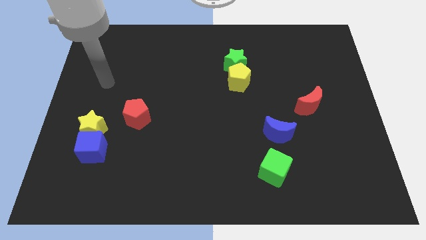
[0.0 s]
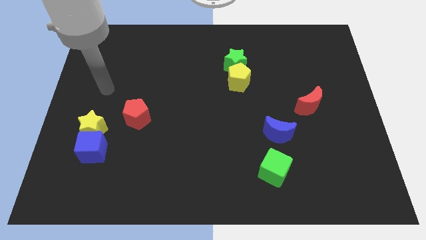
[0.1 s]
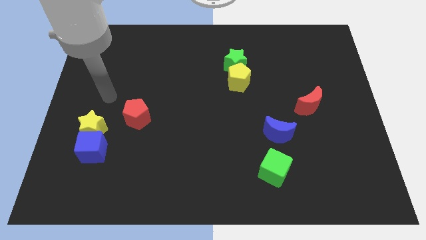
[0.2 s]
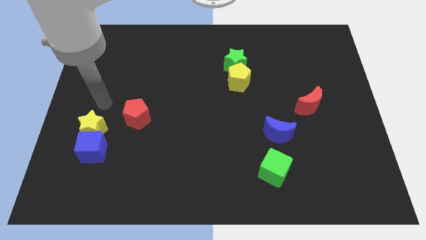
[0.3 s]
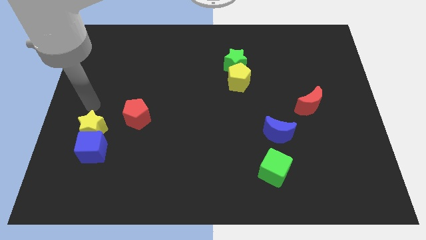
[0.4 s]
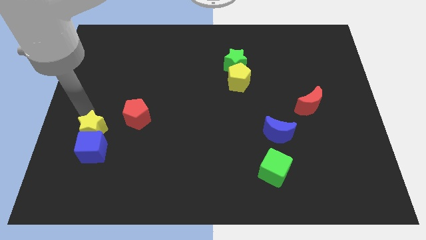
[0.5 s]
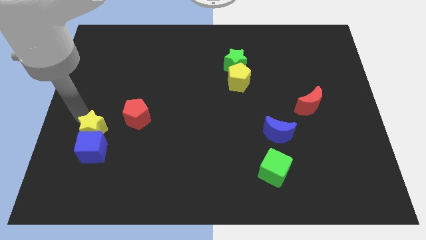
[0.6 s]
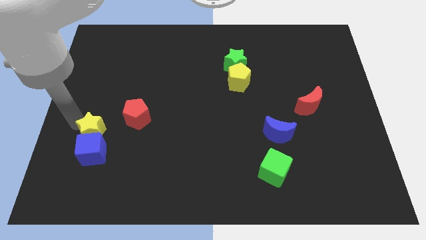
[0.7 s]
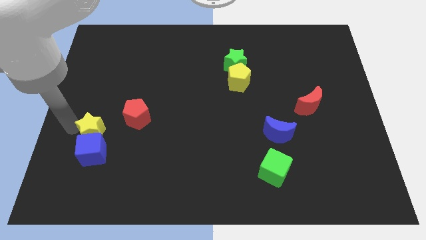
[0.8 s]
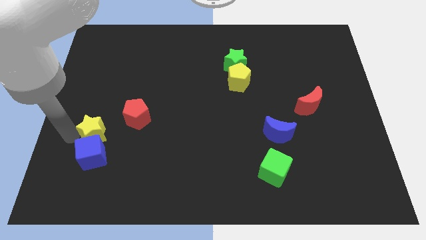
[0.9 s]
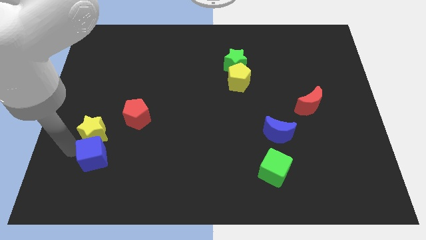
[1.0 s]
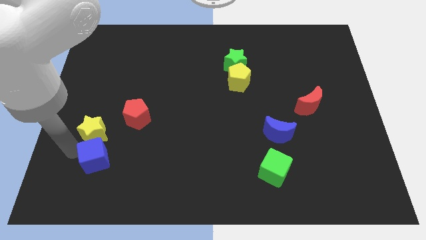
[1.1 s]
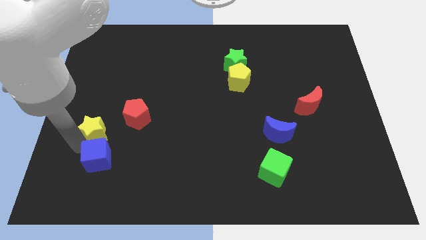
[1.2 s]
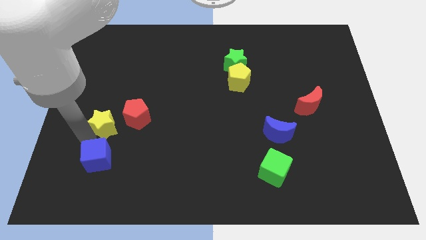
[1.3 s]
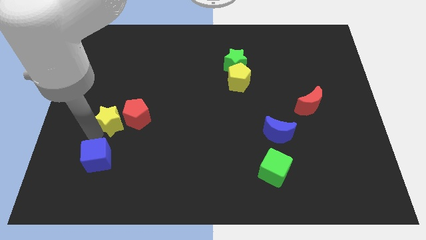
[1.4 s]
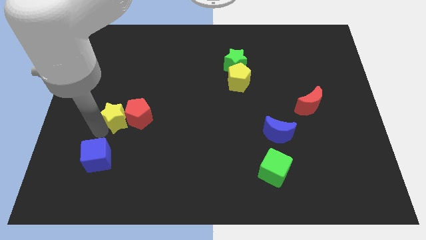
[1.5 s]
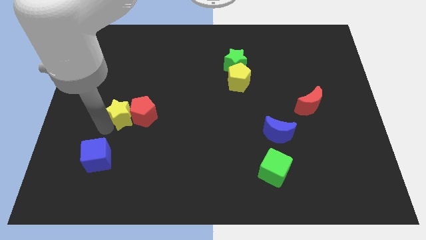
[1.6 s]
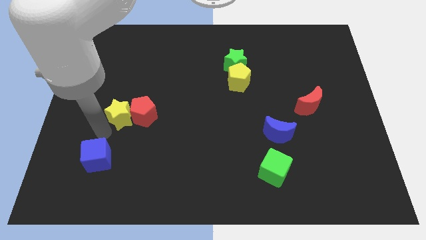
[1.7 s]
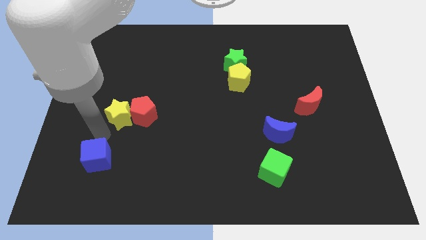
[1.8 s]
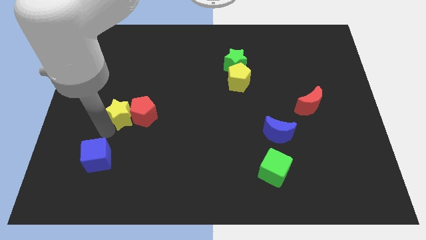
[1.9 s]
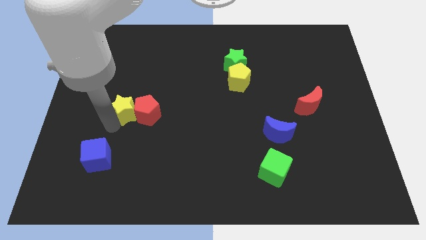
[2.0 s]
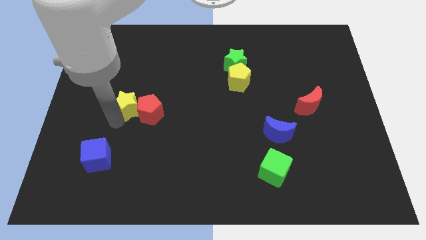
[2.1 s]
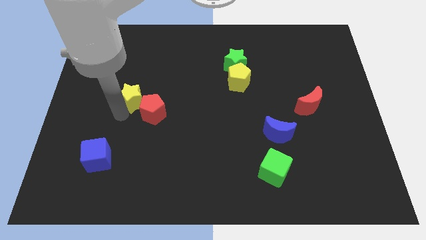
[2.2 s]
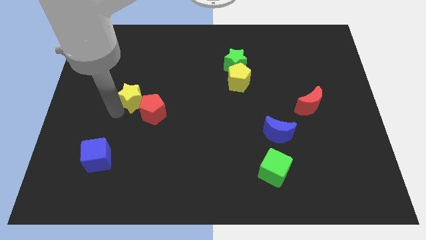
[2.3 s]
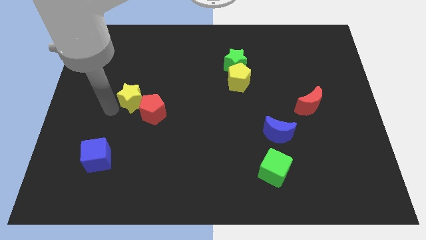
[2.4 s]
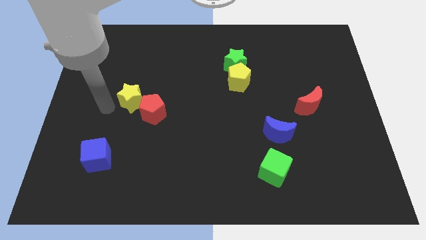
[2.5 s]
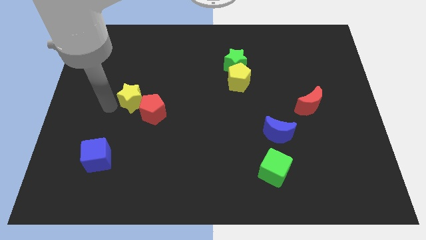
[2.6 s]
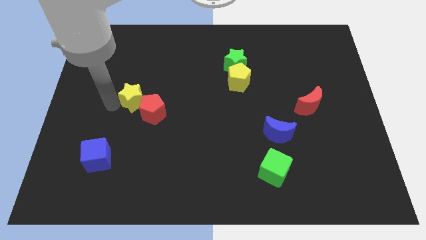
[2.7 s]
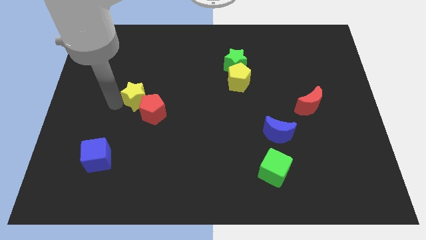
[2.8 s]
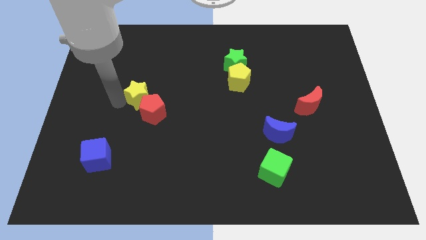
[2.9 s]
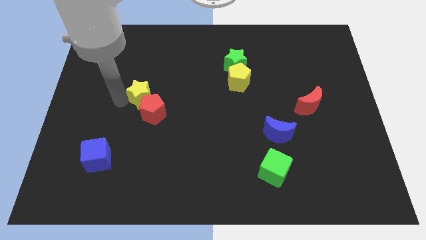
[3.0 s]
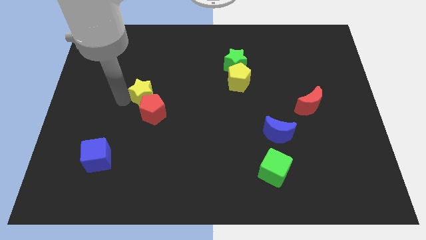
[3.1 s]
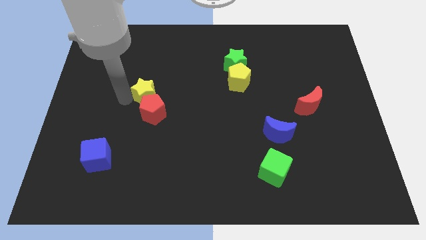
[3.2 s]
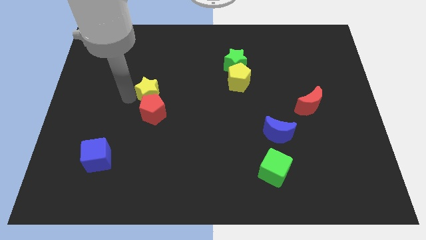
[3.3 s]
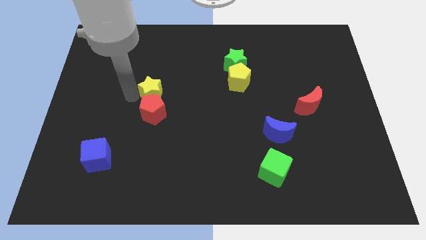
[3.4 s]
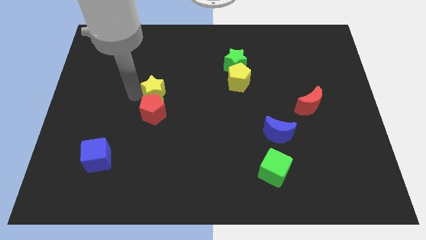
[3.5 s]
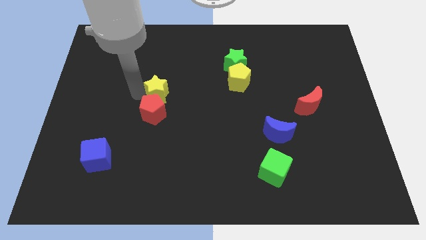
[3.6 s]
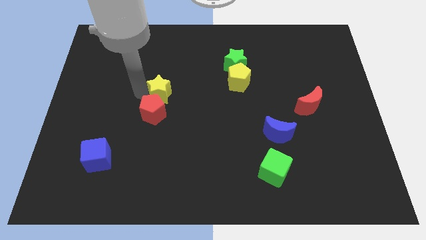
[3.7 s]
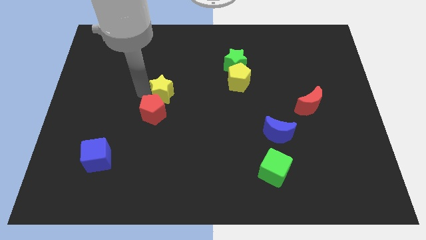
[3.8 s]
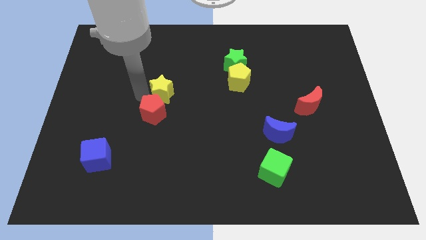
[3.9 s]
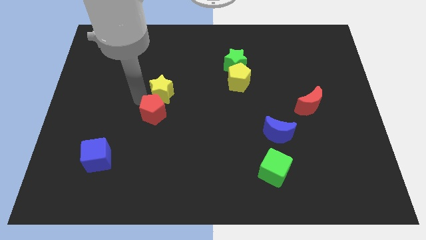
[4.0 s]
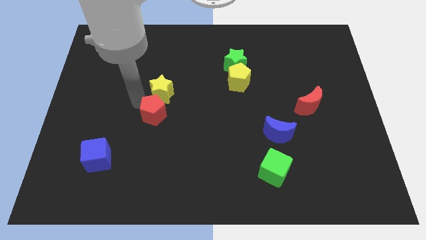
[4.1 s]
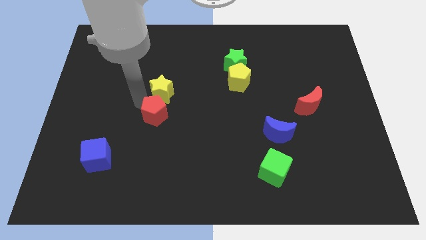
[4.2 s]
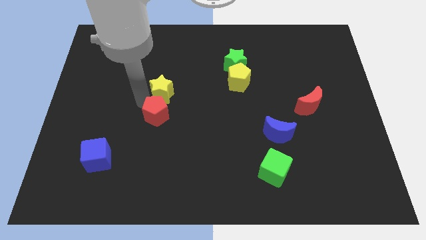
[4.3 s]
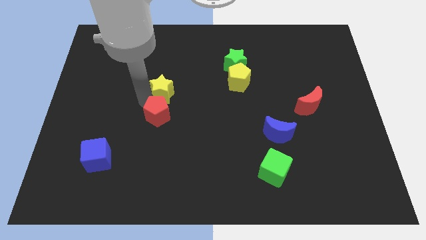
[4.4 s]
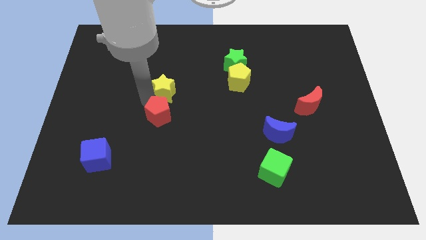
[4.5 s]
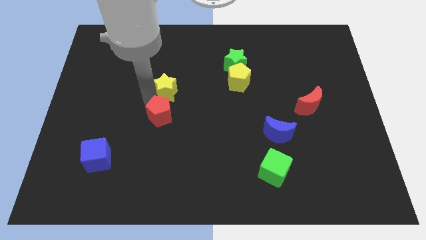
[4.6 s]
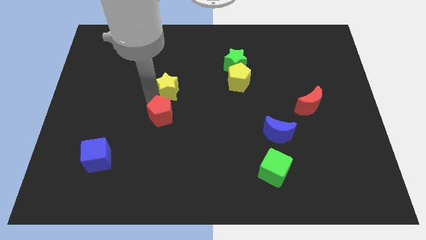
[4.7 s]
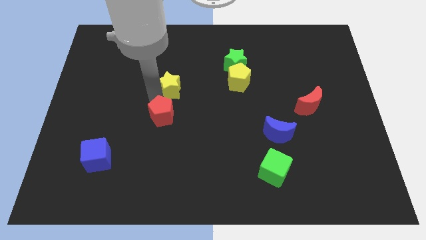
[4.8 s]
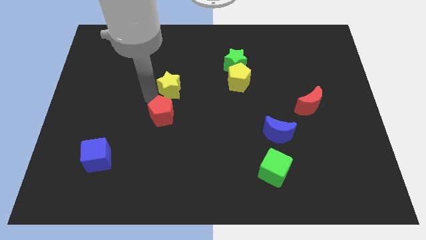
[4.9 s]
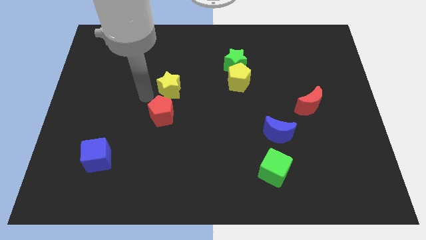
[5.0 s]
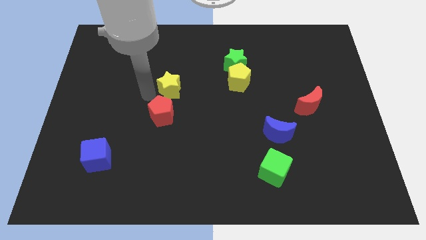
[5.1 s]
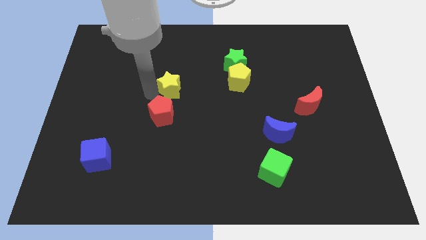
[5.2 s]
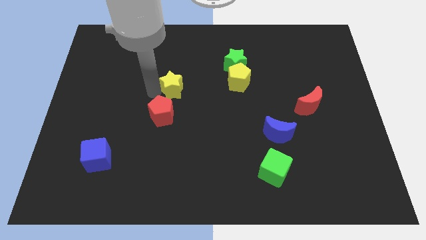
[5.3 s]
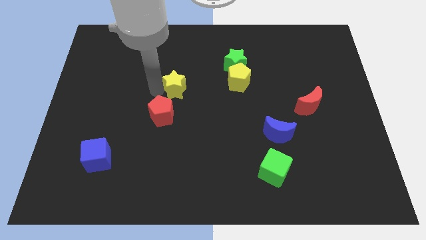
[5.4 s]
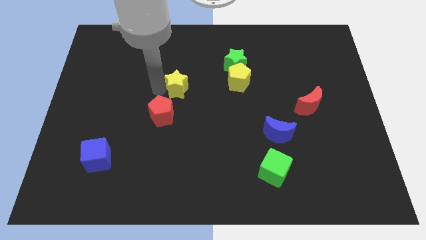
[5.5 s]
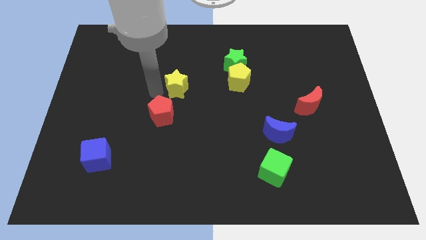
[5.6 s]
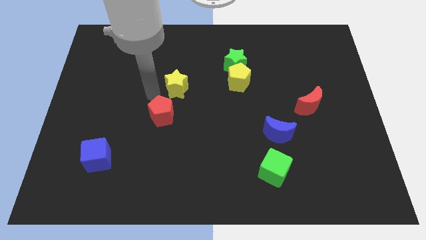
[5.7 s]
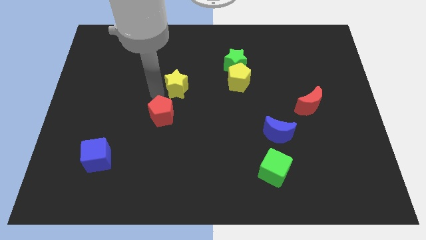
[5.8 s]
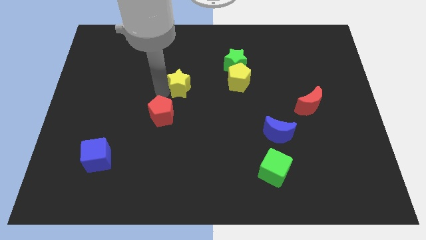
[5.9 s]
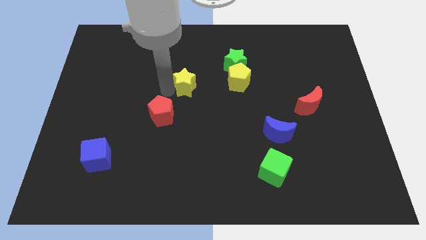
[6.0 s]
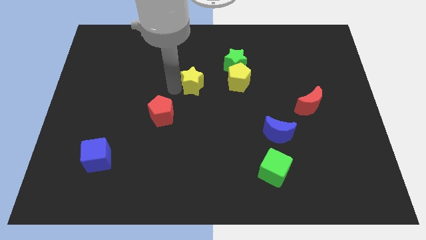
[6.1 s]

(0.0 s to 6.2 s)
slide the yellow star to the bottom left side of the green star
